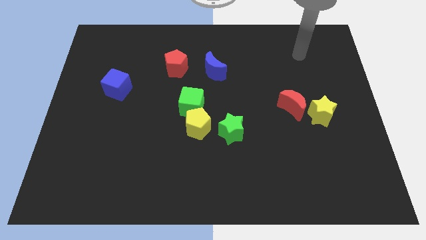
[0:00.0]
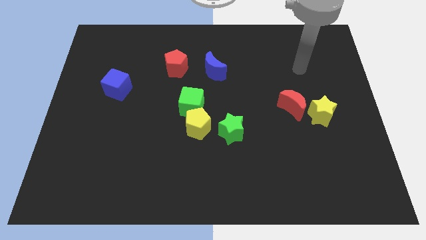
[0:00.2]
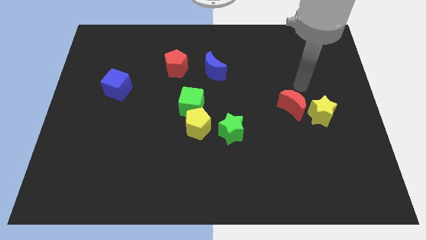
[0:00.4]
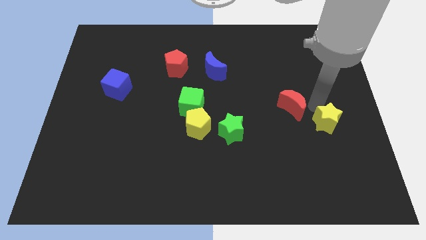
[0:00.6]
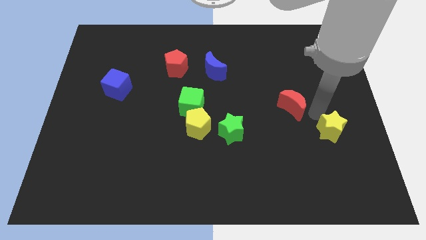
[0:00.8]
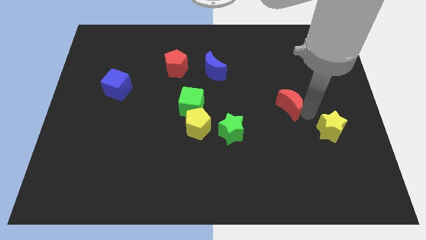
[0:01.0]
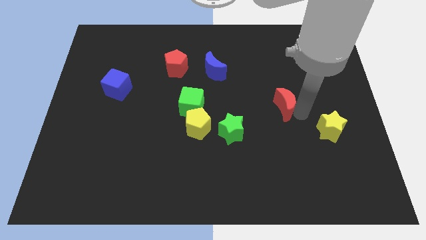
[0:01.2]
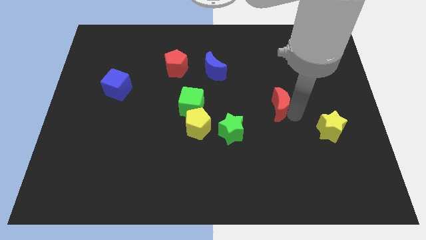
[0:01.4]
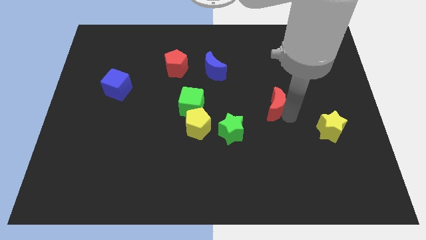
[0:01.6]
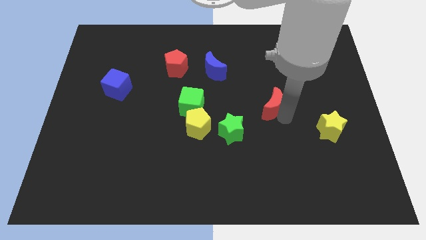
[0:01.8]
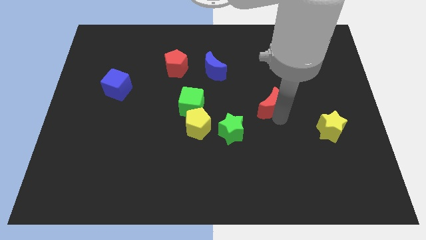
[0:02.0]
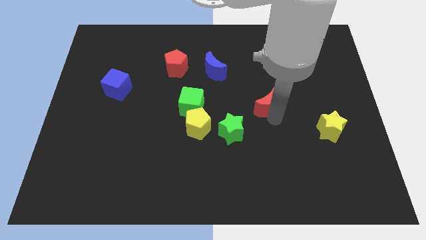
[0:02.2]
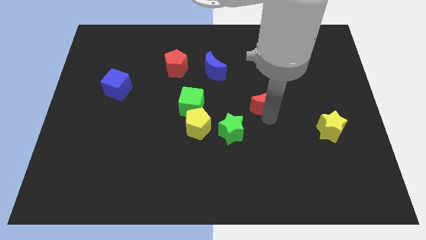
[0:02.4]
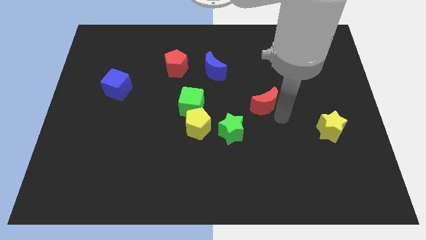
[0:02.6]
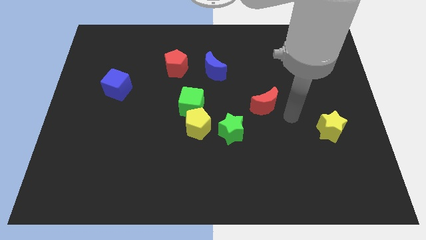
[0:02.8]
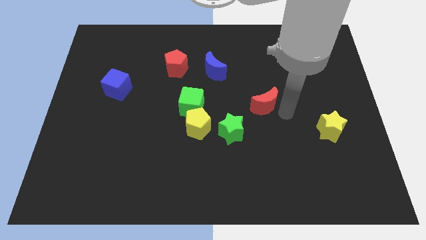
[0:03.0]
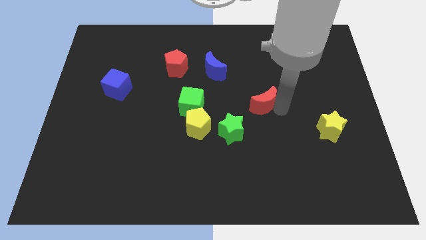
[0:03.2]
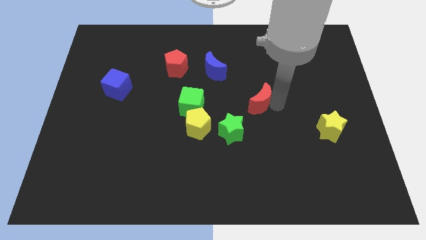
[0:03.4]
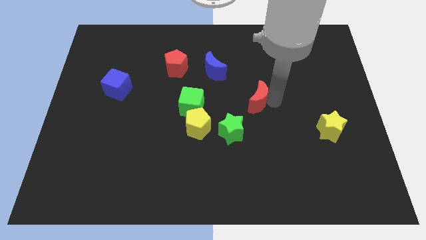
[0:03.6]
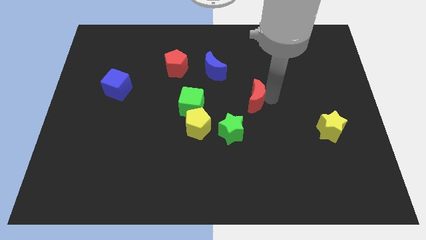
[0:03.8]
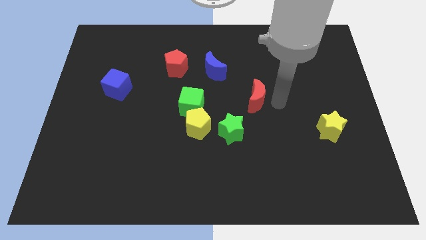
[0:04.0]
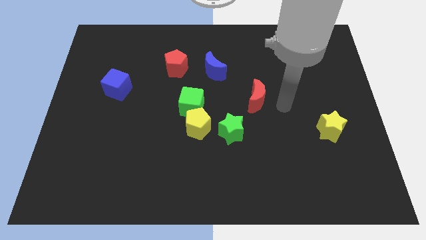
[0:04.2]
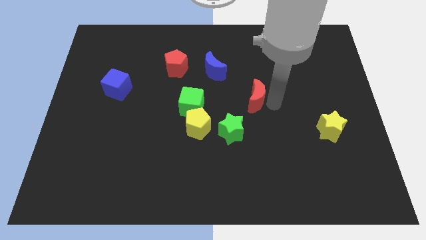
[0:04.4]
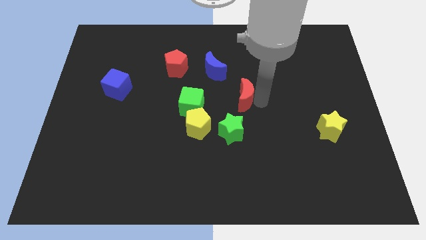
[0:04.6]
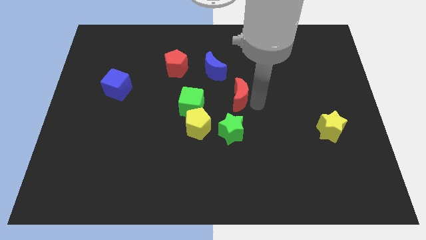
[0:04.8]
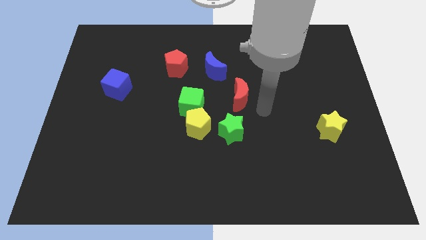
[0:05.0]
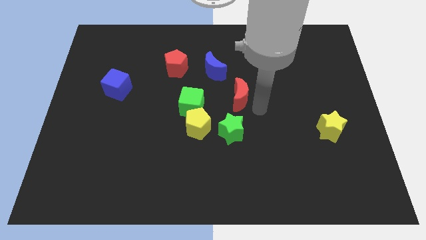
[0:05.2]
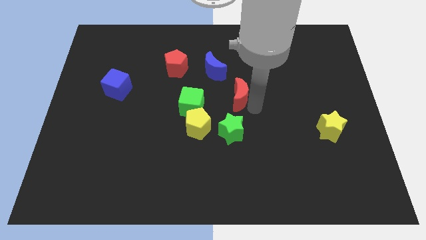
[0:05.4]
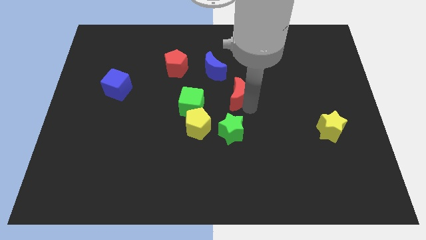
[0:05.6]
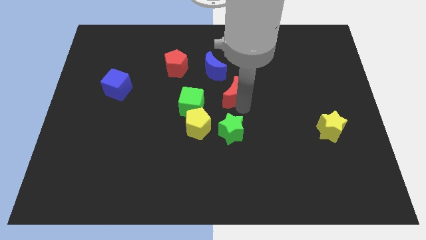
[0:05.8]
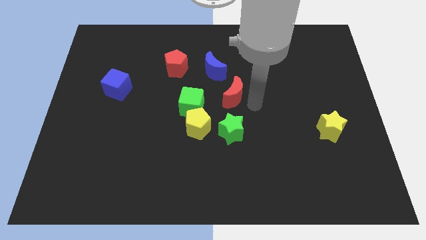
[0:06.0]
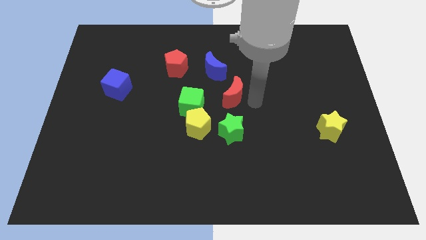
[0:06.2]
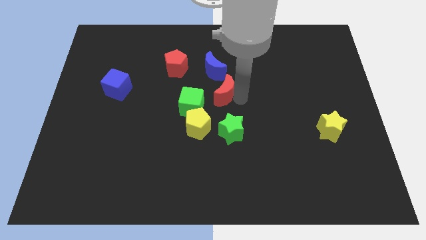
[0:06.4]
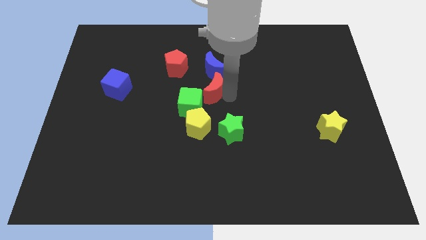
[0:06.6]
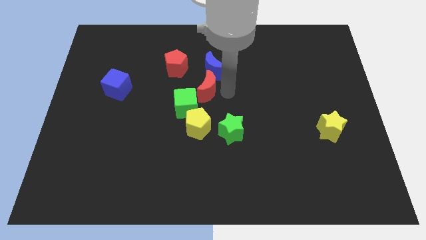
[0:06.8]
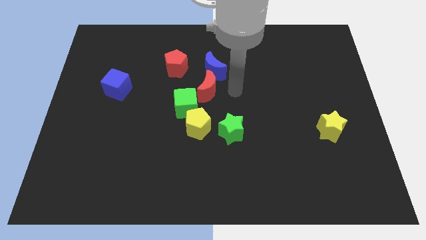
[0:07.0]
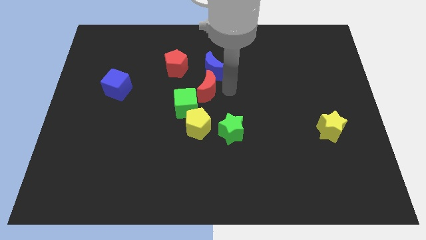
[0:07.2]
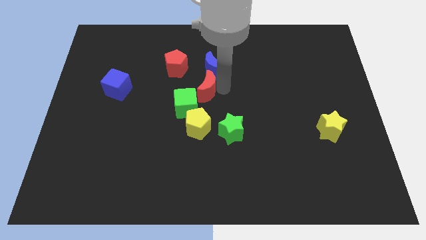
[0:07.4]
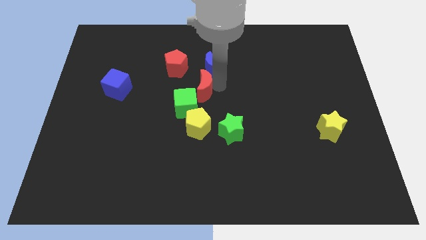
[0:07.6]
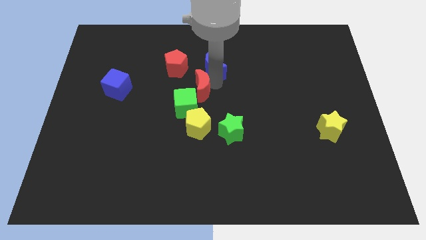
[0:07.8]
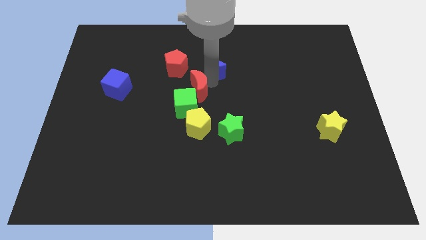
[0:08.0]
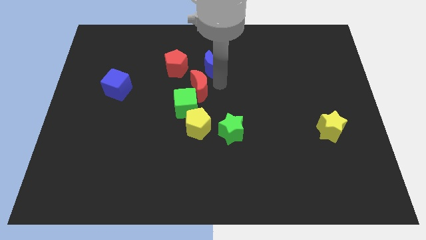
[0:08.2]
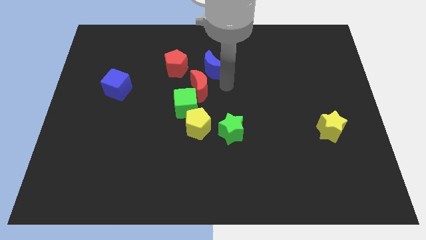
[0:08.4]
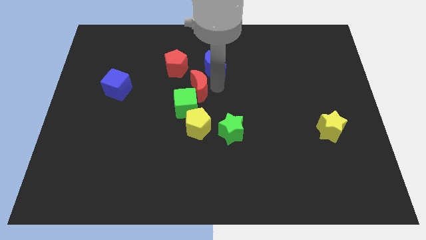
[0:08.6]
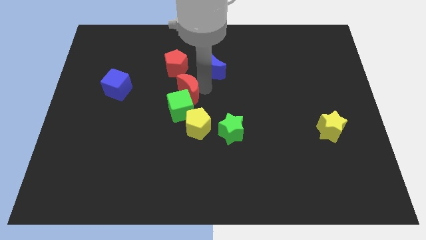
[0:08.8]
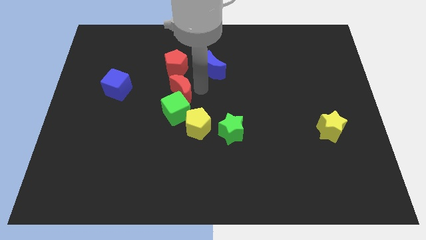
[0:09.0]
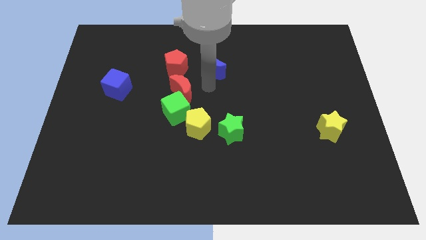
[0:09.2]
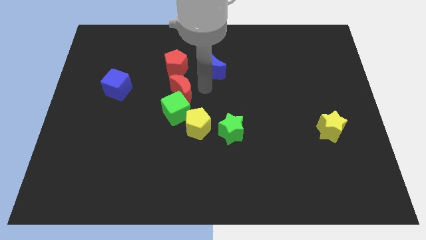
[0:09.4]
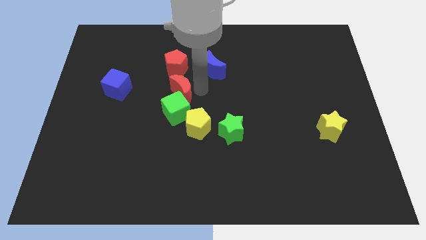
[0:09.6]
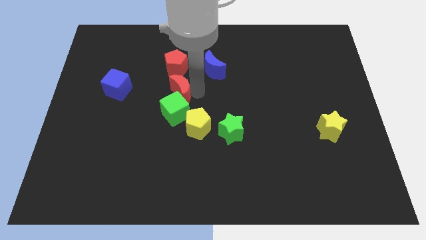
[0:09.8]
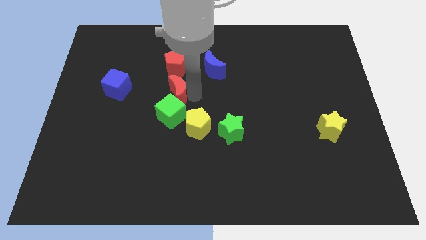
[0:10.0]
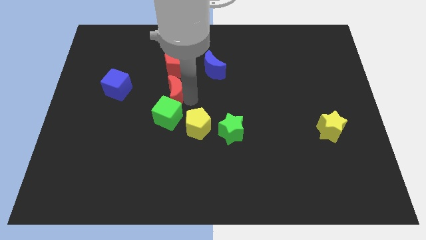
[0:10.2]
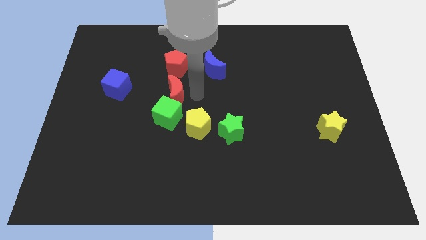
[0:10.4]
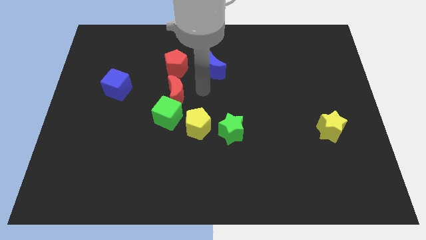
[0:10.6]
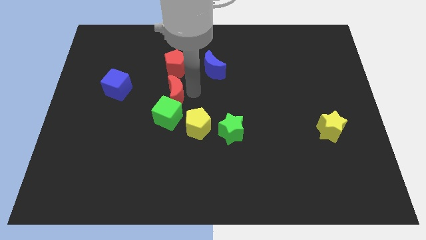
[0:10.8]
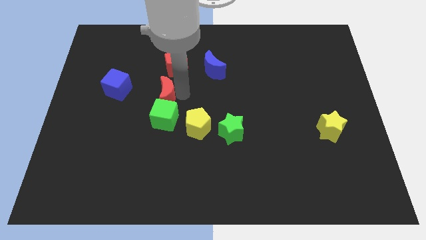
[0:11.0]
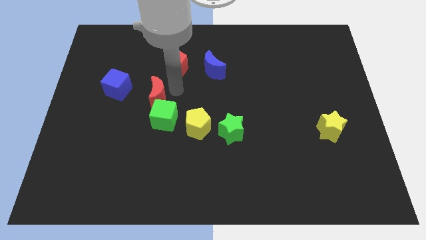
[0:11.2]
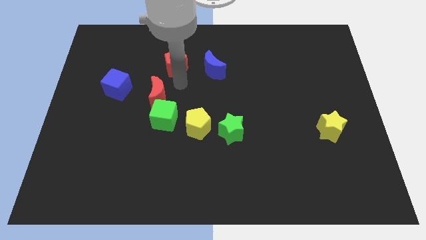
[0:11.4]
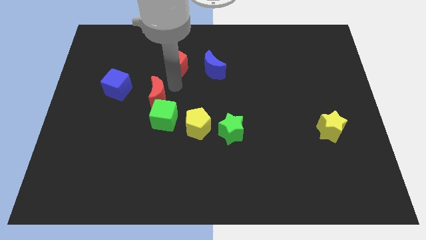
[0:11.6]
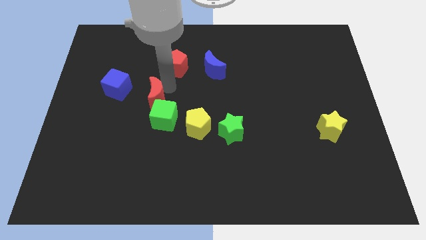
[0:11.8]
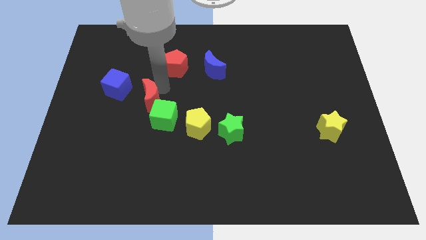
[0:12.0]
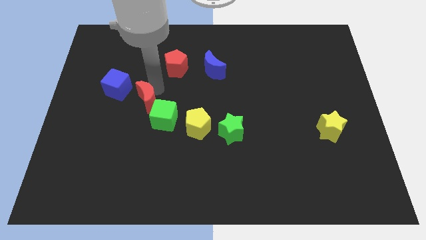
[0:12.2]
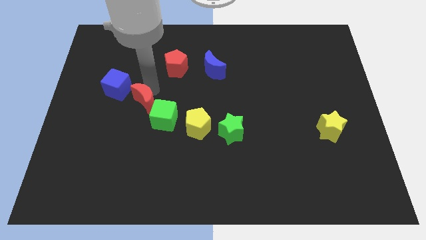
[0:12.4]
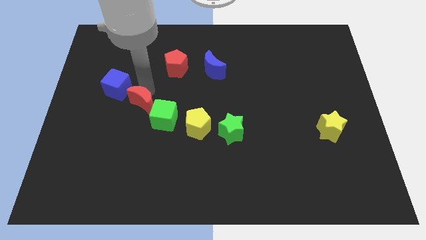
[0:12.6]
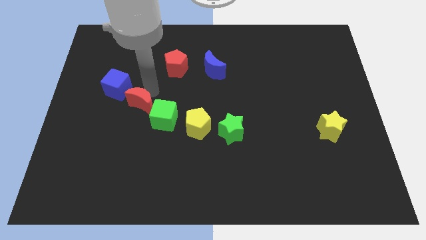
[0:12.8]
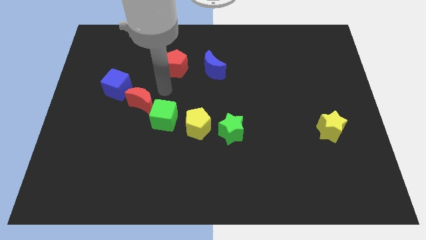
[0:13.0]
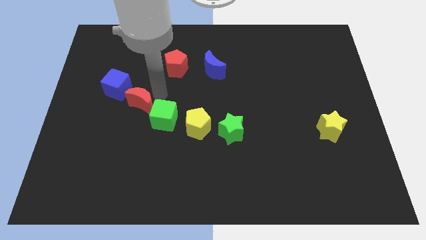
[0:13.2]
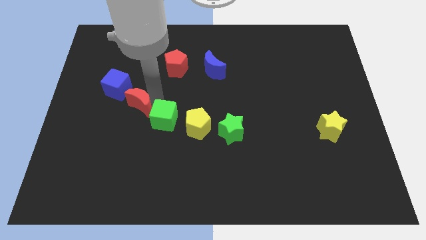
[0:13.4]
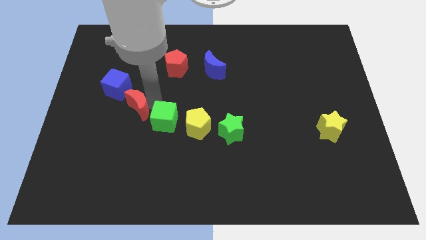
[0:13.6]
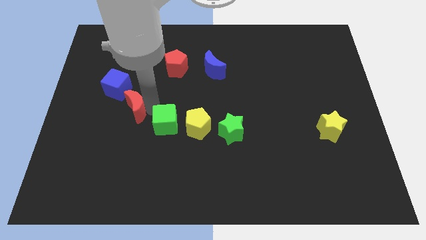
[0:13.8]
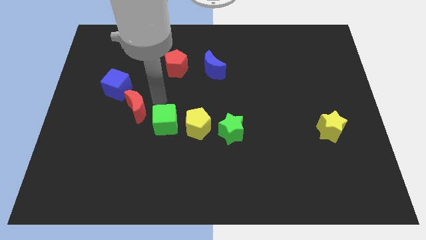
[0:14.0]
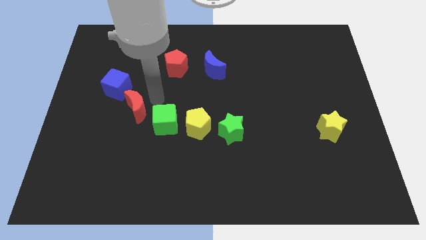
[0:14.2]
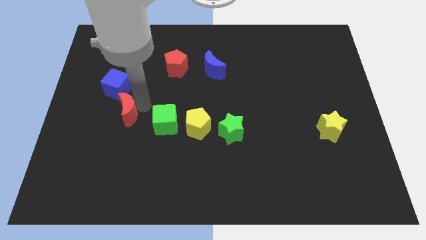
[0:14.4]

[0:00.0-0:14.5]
push the red moon to the bottom of the blue cube
